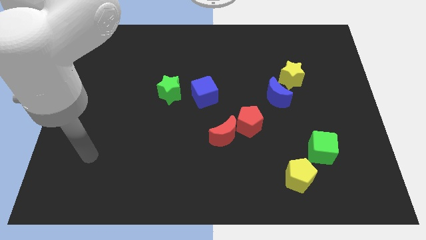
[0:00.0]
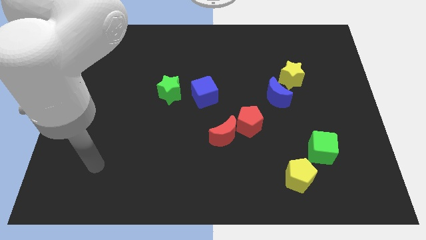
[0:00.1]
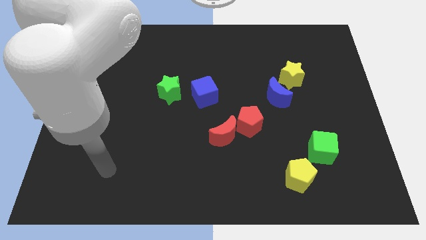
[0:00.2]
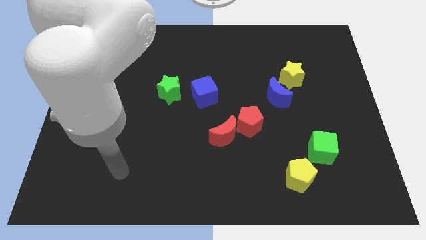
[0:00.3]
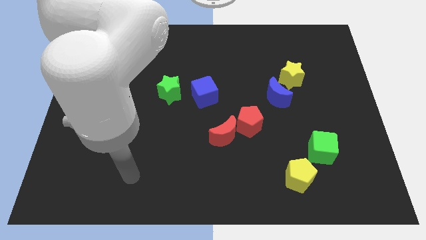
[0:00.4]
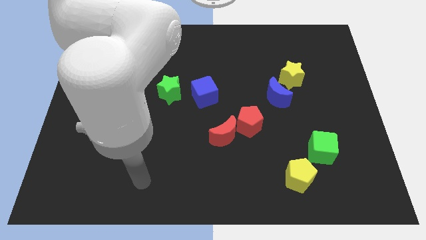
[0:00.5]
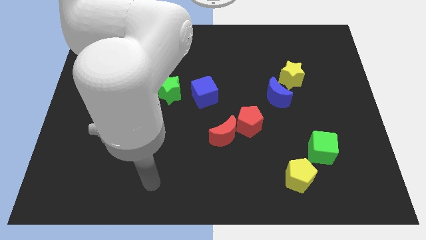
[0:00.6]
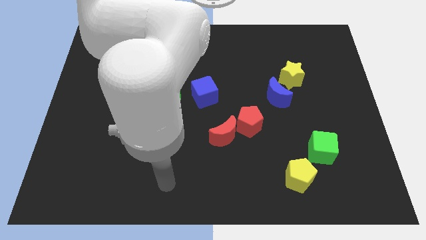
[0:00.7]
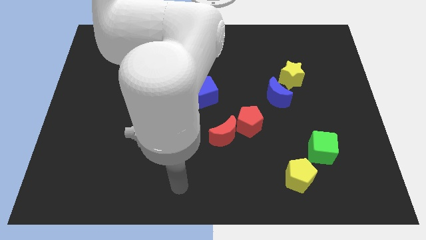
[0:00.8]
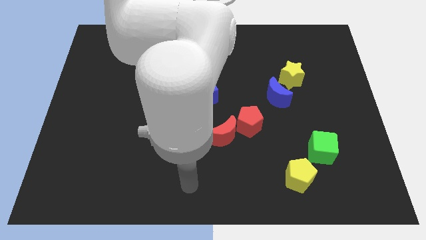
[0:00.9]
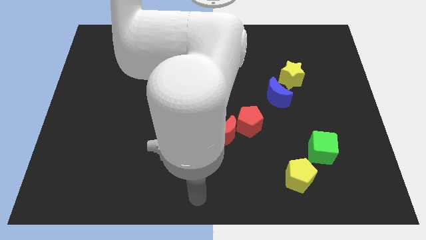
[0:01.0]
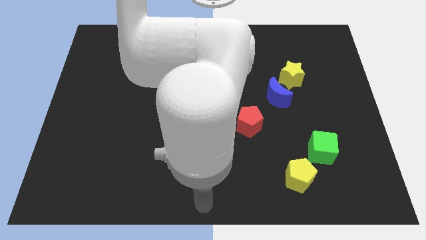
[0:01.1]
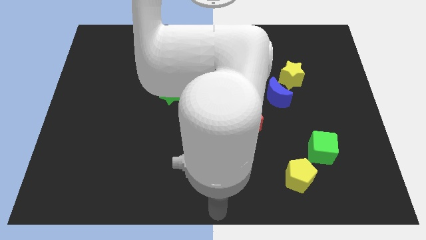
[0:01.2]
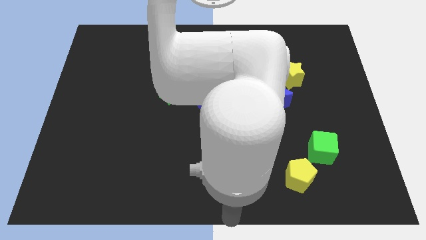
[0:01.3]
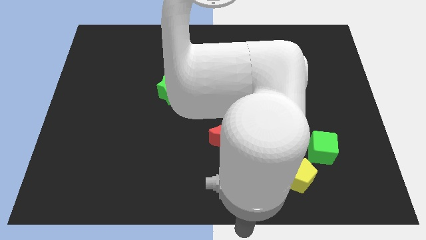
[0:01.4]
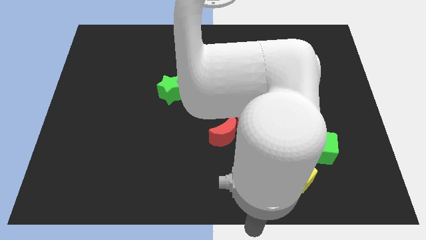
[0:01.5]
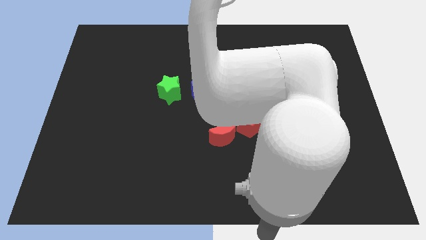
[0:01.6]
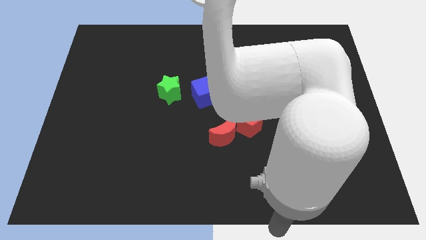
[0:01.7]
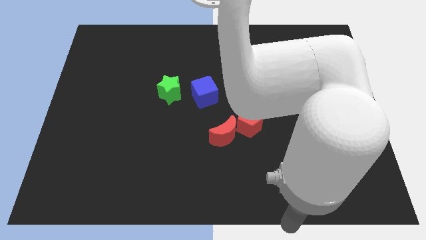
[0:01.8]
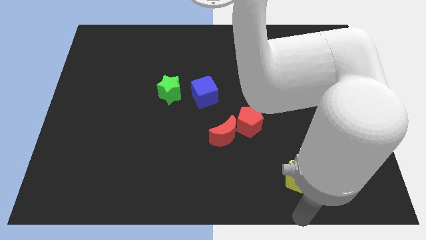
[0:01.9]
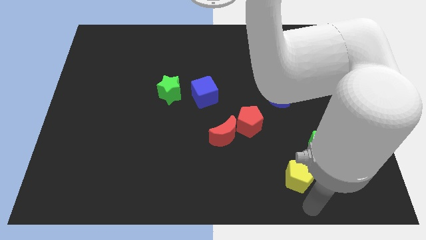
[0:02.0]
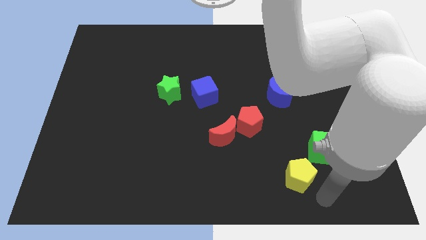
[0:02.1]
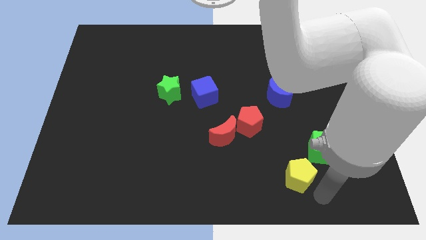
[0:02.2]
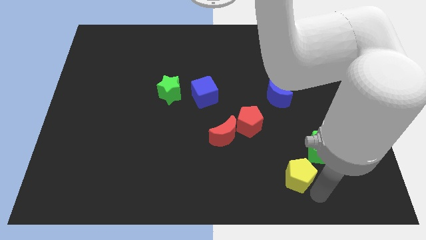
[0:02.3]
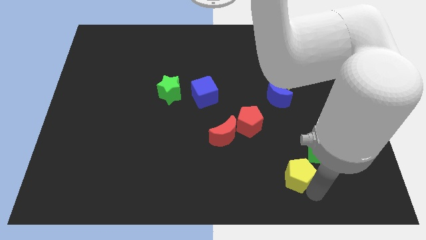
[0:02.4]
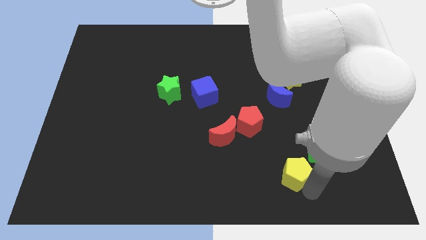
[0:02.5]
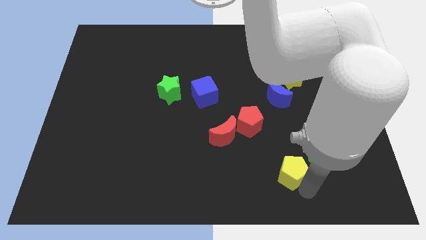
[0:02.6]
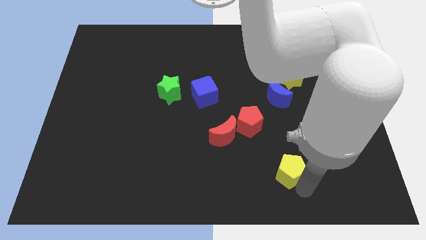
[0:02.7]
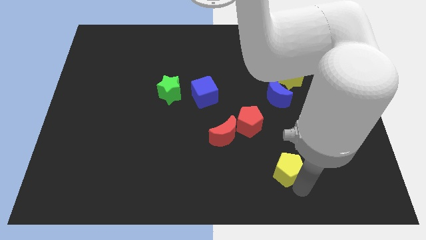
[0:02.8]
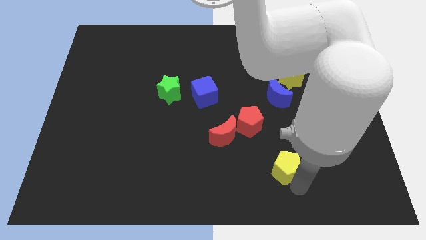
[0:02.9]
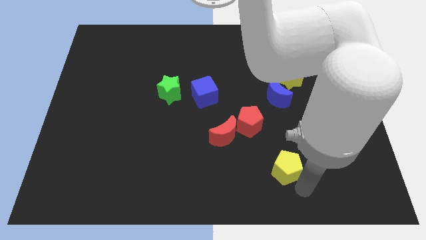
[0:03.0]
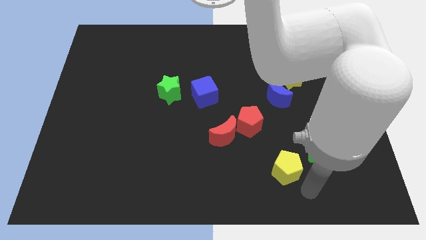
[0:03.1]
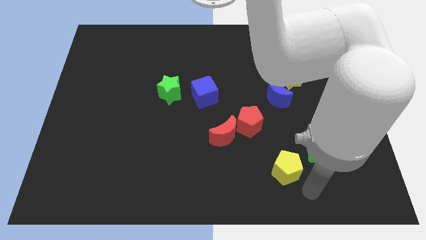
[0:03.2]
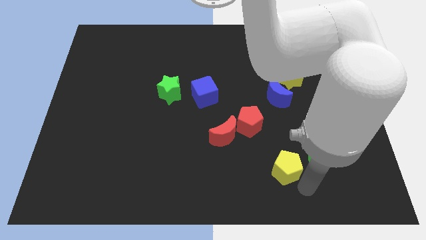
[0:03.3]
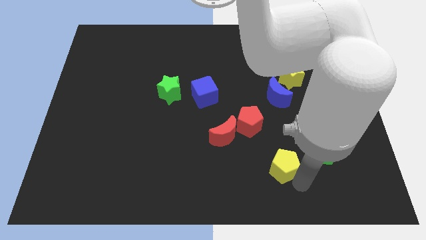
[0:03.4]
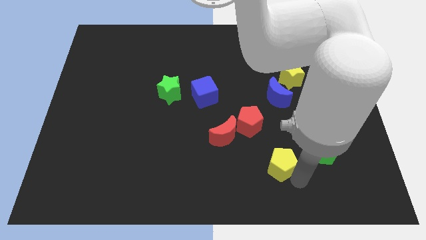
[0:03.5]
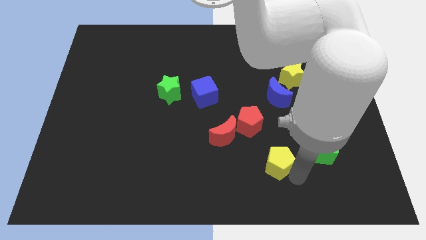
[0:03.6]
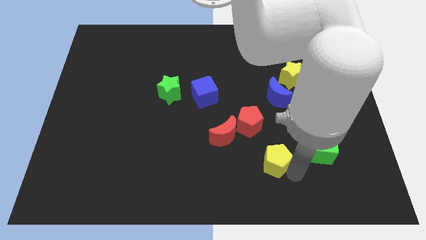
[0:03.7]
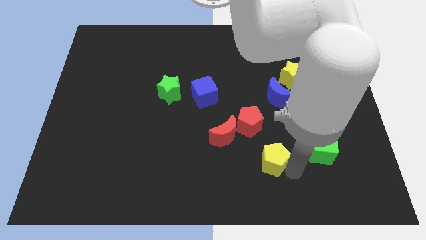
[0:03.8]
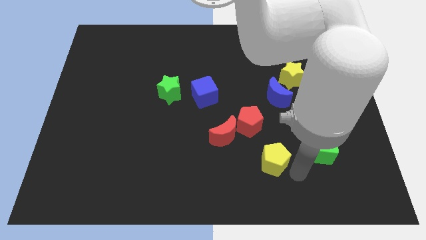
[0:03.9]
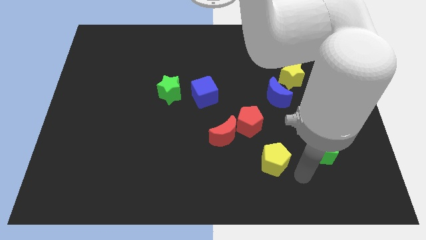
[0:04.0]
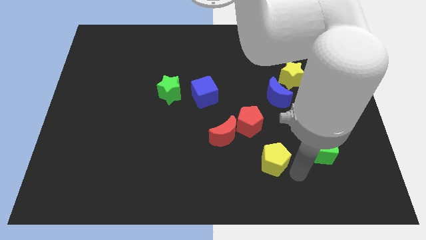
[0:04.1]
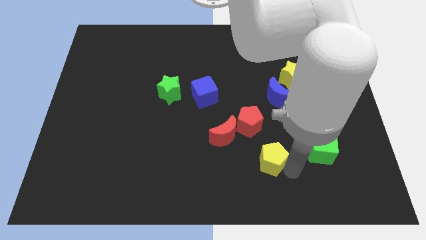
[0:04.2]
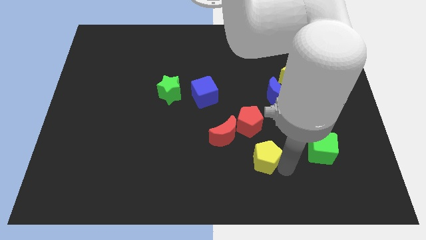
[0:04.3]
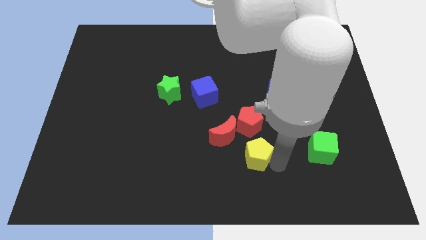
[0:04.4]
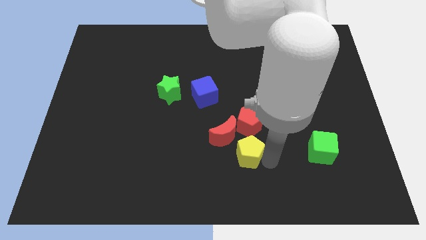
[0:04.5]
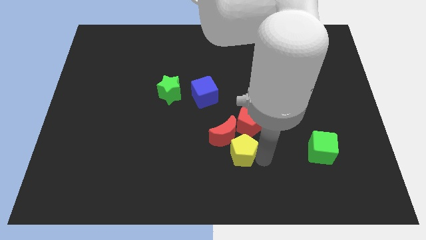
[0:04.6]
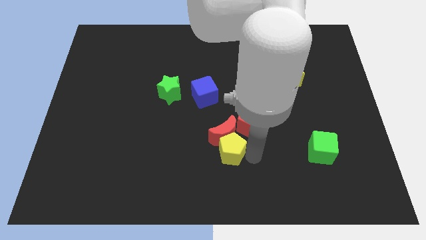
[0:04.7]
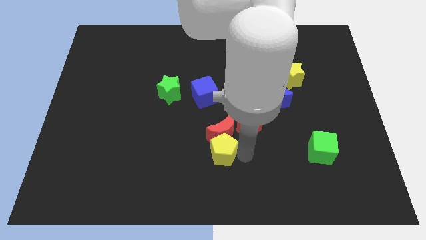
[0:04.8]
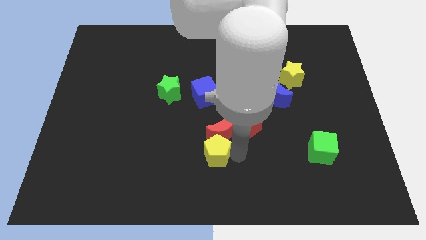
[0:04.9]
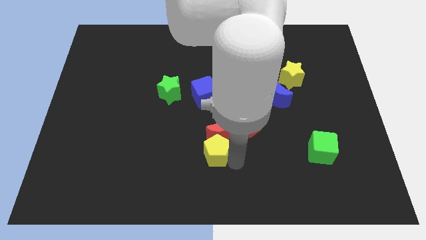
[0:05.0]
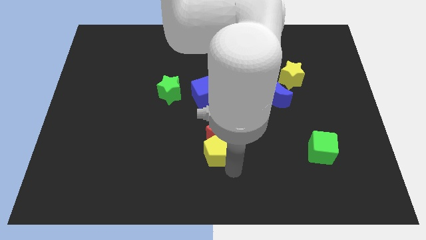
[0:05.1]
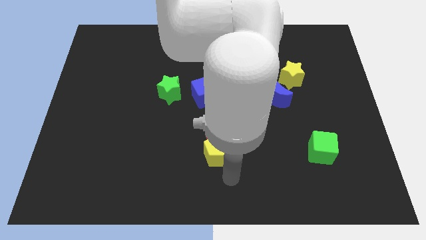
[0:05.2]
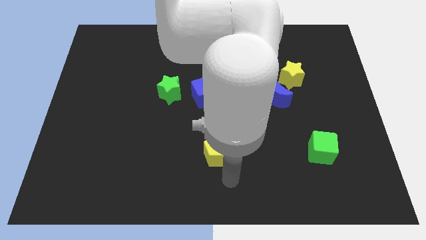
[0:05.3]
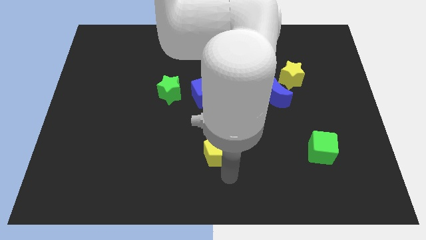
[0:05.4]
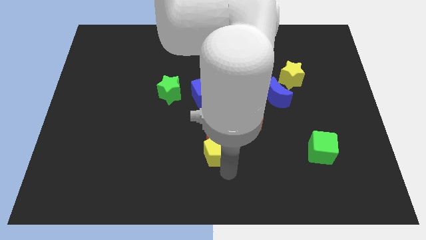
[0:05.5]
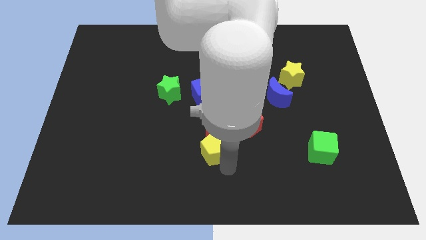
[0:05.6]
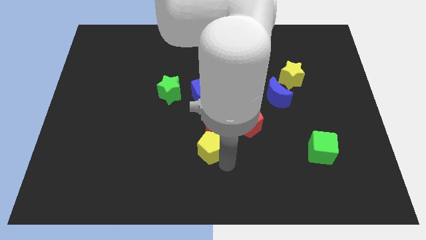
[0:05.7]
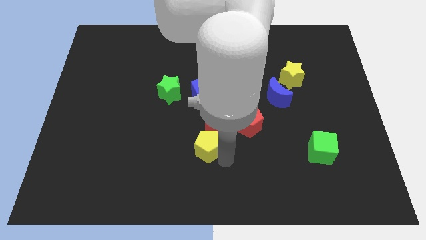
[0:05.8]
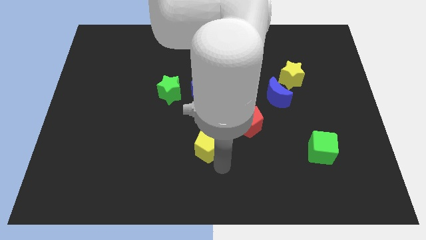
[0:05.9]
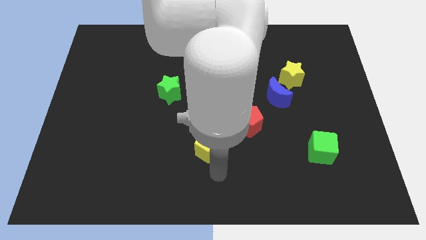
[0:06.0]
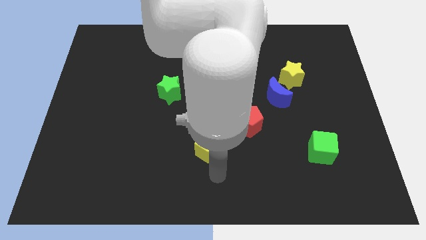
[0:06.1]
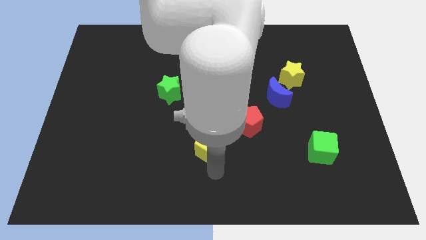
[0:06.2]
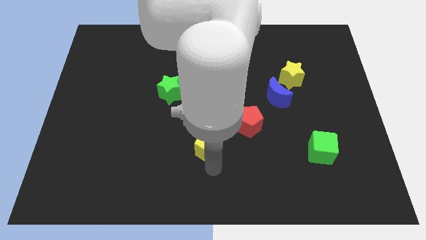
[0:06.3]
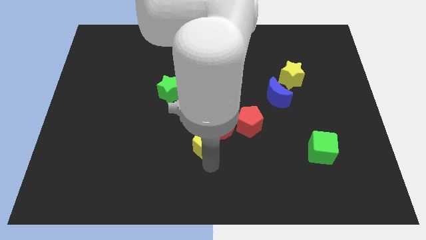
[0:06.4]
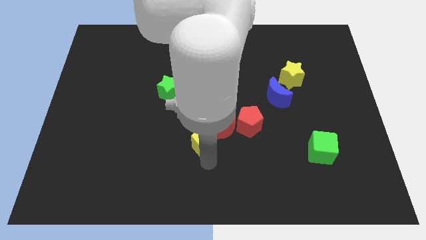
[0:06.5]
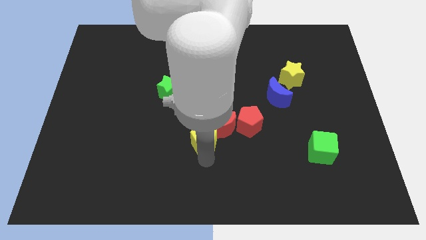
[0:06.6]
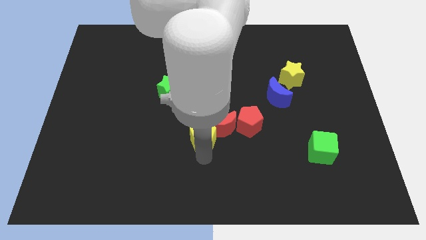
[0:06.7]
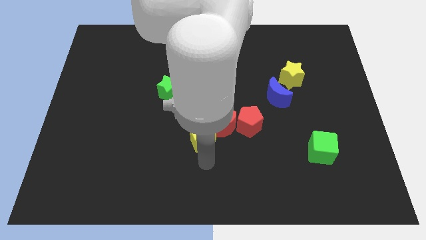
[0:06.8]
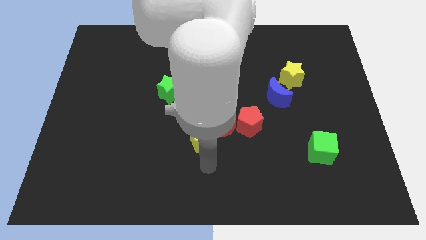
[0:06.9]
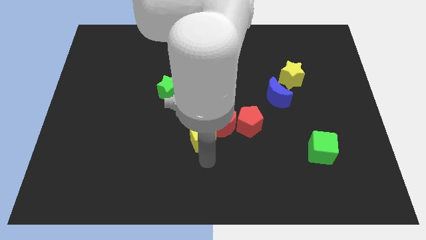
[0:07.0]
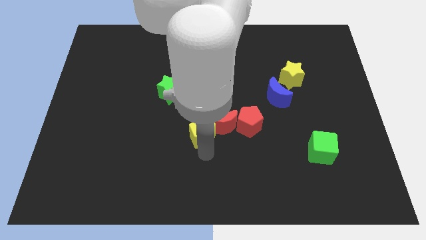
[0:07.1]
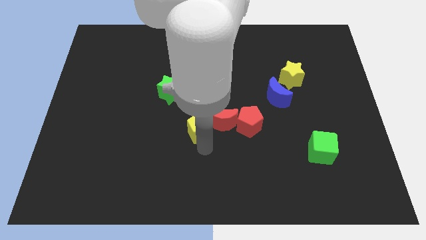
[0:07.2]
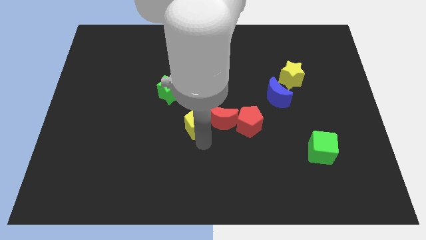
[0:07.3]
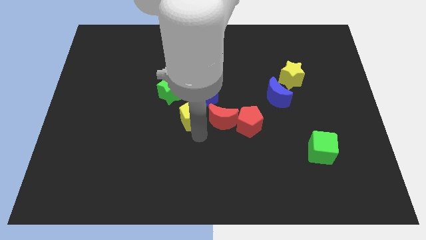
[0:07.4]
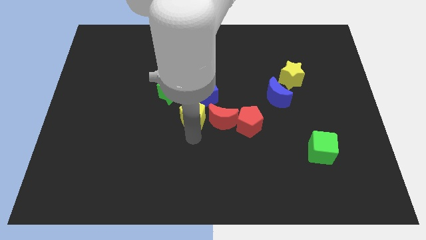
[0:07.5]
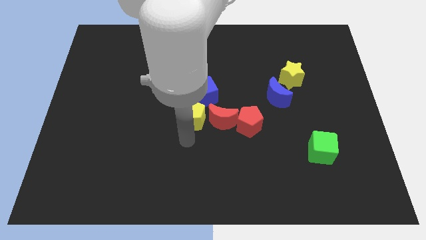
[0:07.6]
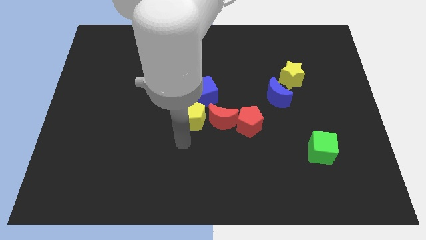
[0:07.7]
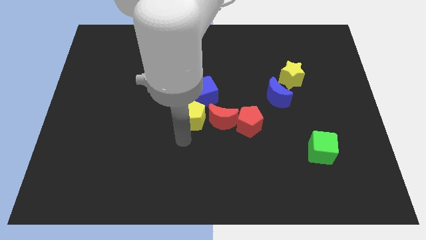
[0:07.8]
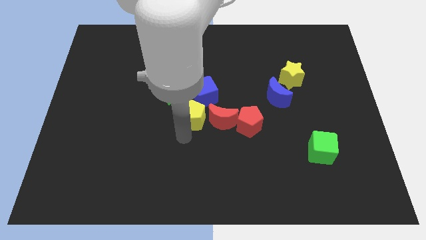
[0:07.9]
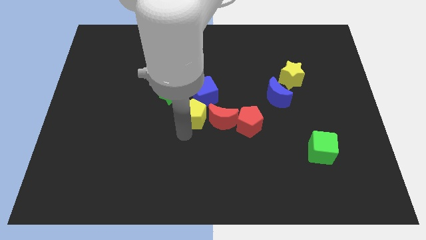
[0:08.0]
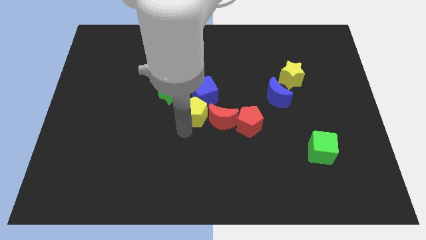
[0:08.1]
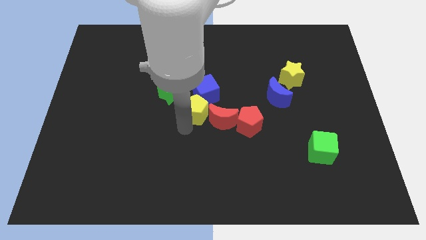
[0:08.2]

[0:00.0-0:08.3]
slide the yellow pentagon next to the blue cube
